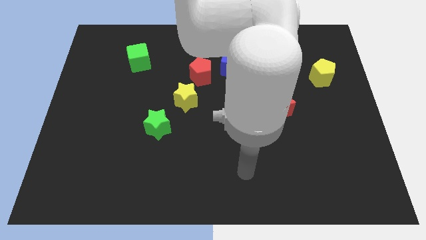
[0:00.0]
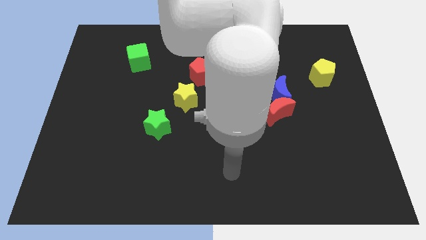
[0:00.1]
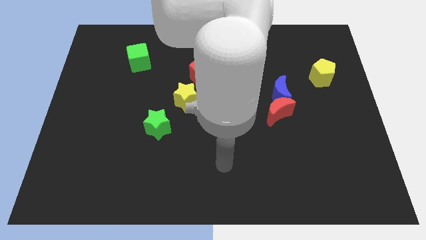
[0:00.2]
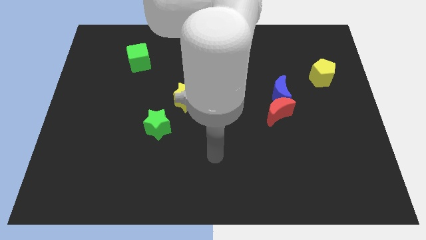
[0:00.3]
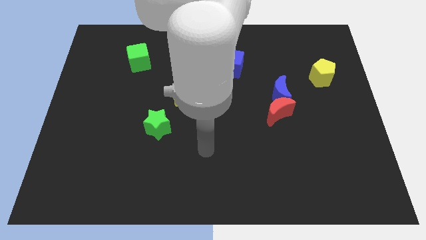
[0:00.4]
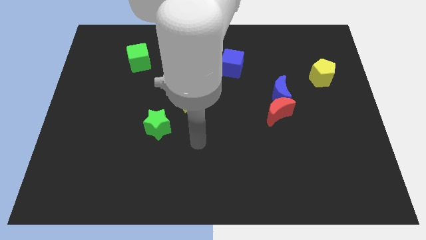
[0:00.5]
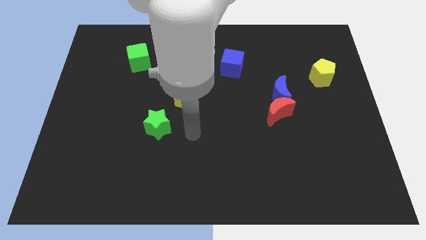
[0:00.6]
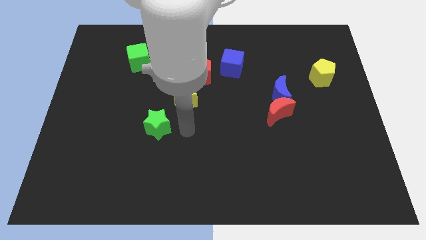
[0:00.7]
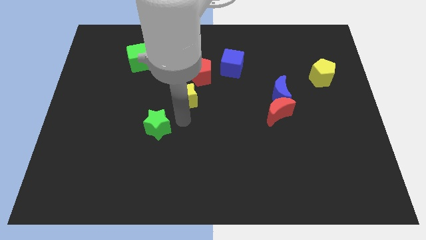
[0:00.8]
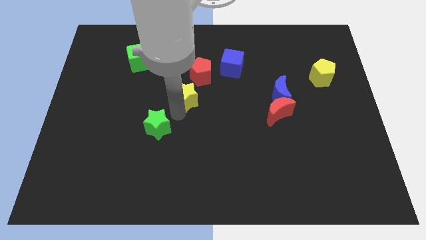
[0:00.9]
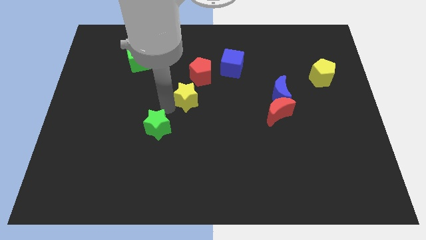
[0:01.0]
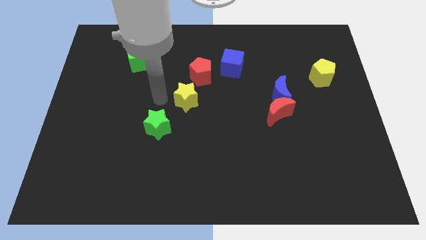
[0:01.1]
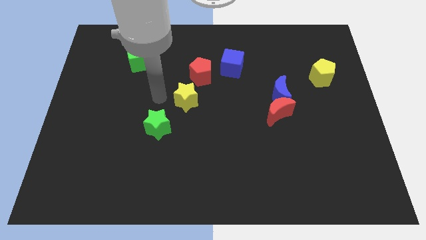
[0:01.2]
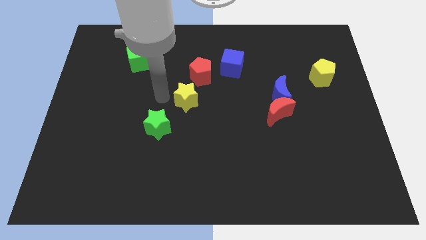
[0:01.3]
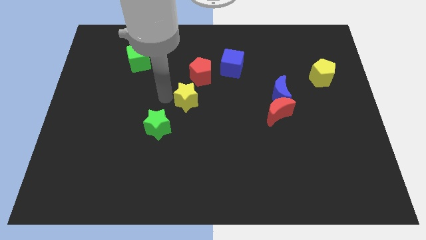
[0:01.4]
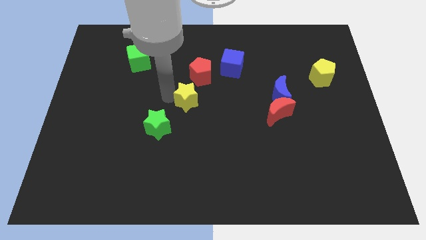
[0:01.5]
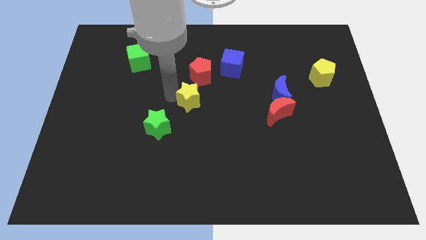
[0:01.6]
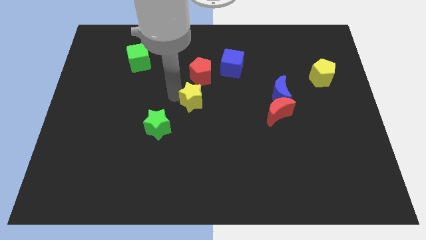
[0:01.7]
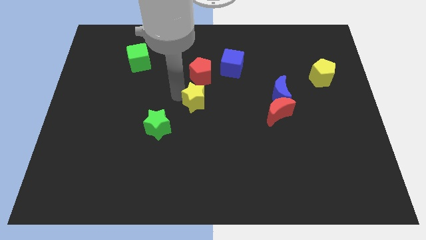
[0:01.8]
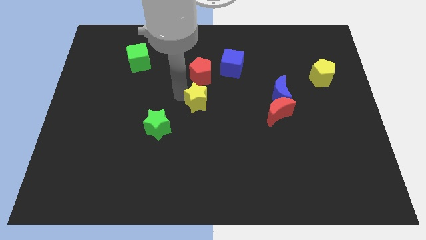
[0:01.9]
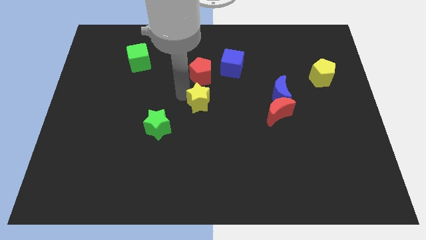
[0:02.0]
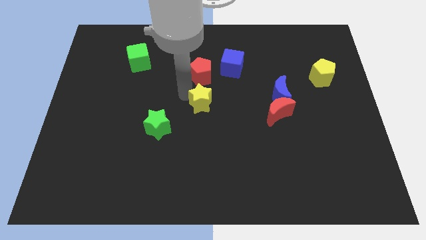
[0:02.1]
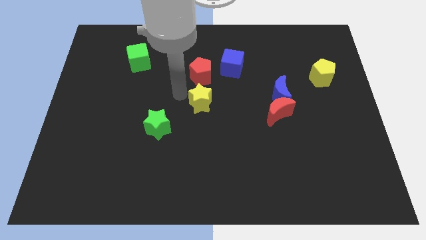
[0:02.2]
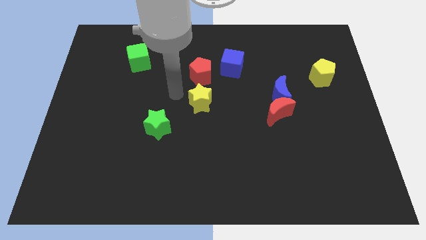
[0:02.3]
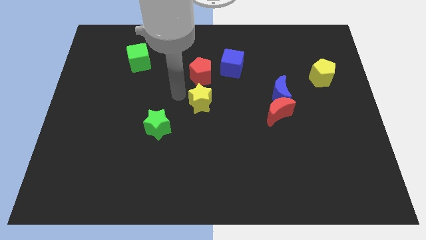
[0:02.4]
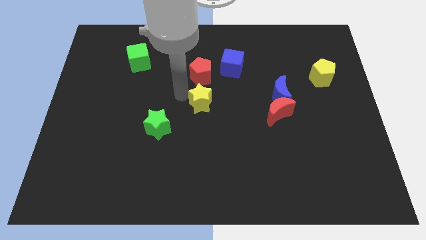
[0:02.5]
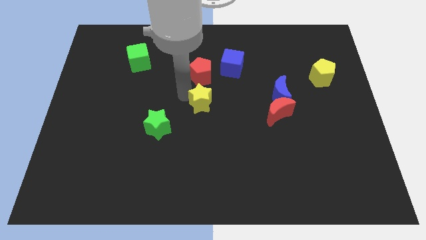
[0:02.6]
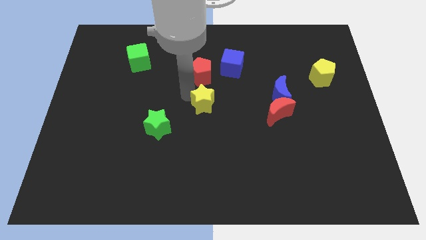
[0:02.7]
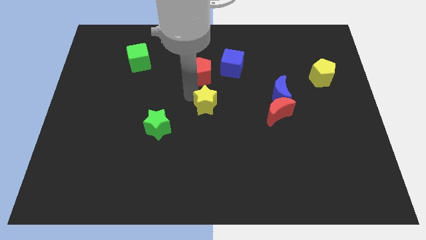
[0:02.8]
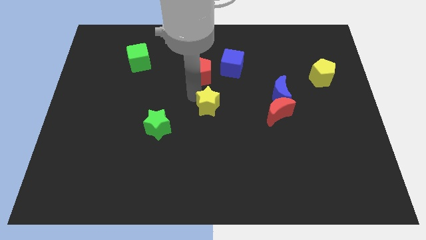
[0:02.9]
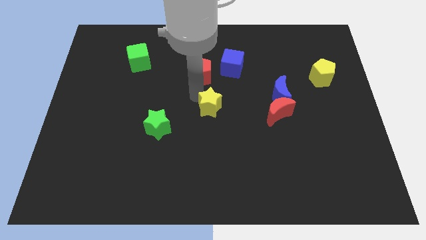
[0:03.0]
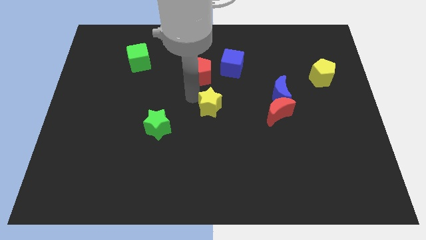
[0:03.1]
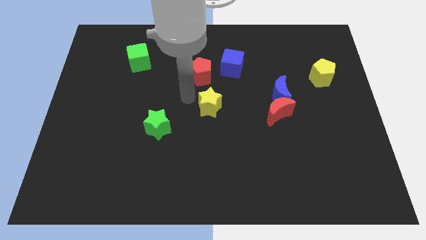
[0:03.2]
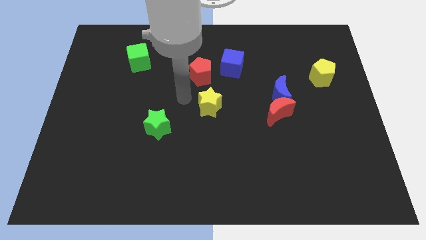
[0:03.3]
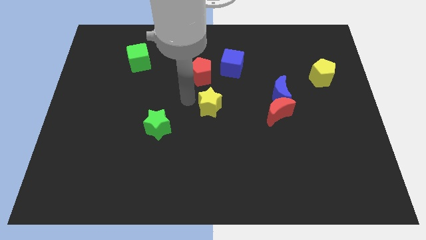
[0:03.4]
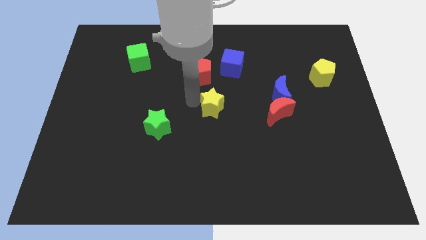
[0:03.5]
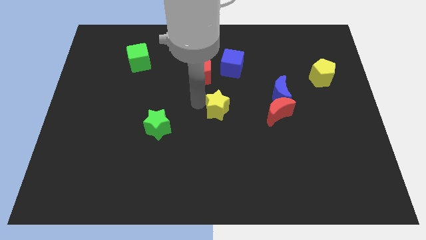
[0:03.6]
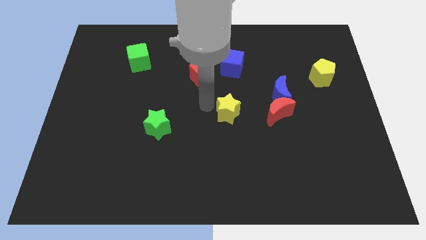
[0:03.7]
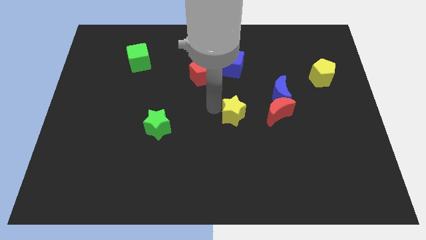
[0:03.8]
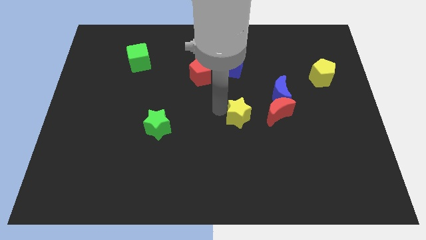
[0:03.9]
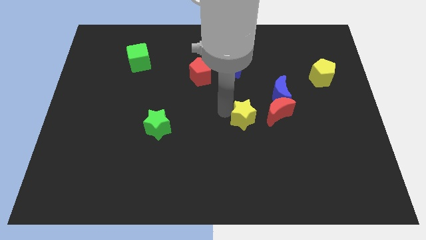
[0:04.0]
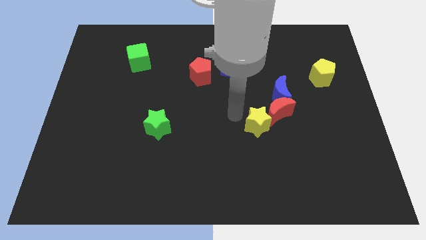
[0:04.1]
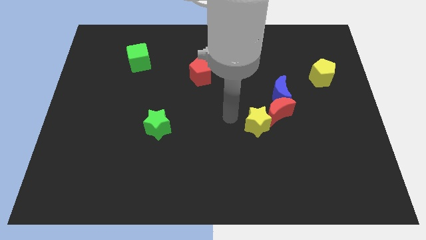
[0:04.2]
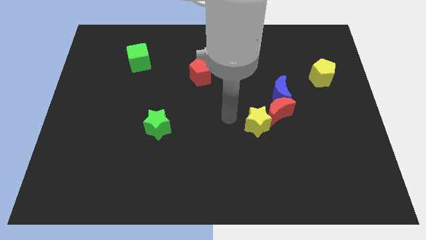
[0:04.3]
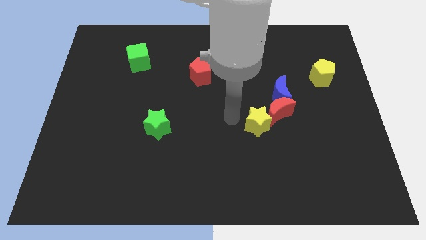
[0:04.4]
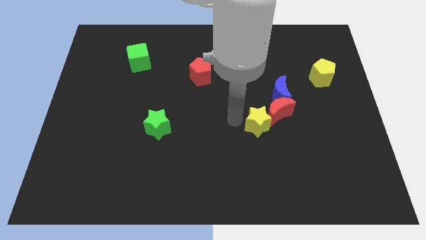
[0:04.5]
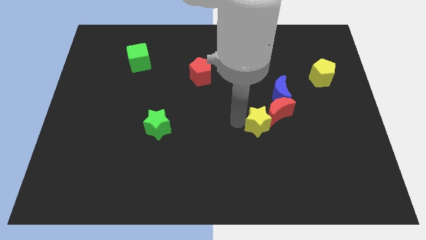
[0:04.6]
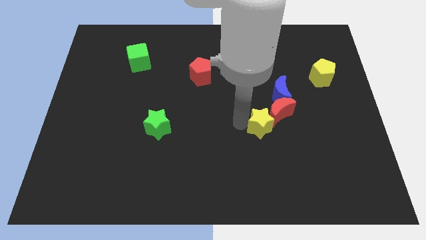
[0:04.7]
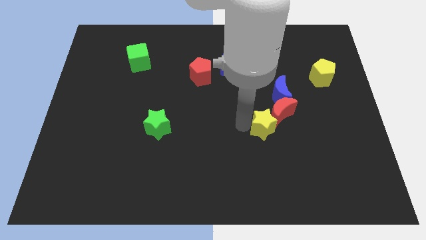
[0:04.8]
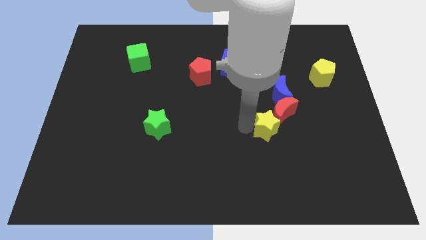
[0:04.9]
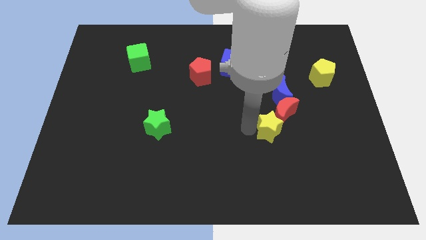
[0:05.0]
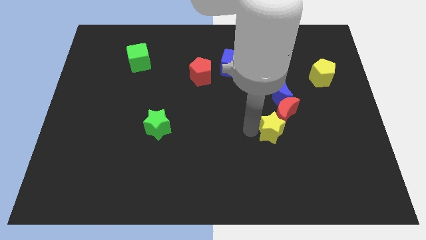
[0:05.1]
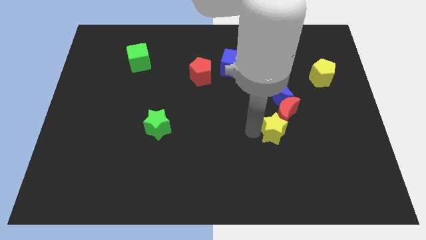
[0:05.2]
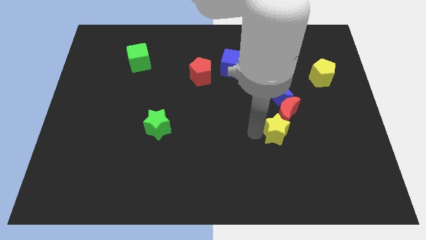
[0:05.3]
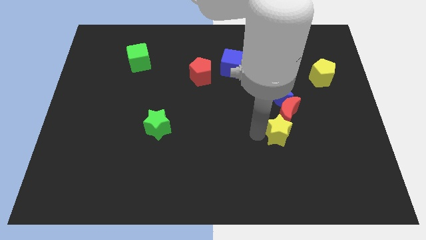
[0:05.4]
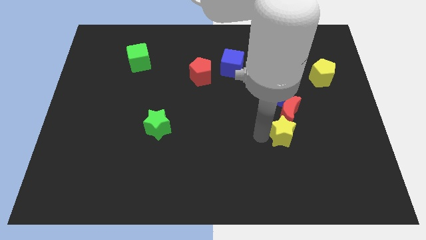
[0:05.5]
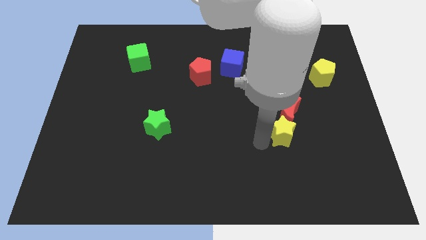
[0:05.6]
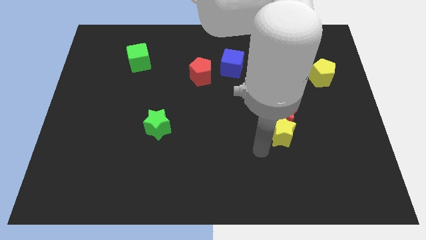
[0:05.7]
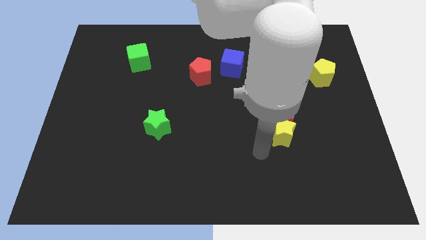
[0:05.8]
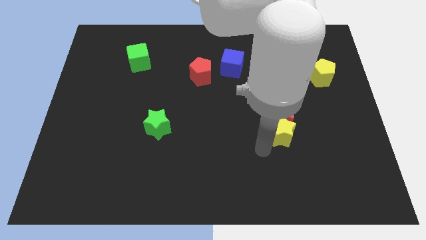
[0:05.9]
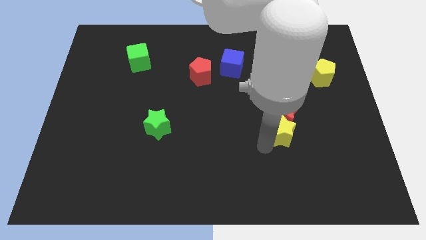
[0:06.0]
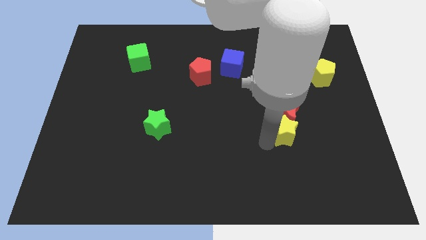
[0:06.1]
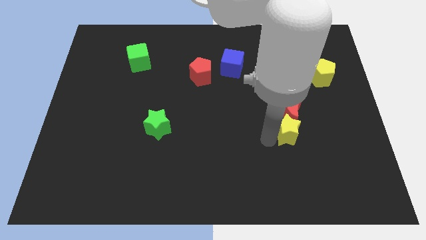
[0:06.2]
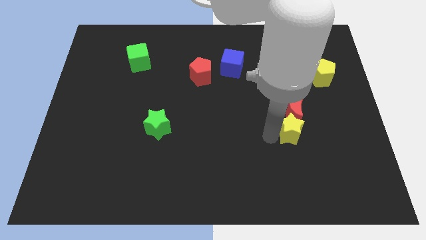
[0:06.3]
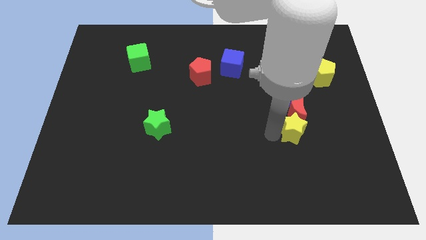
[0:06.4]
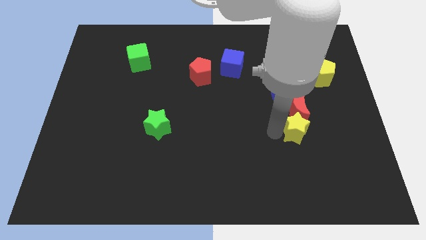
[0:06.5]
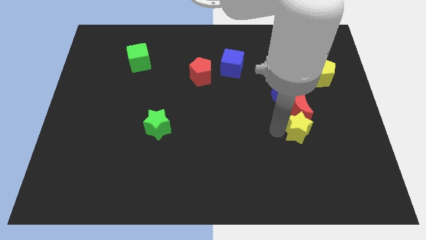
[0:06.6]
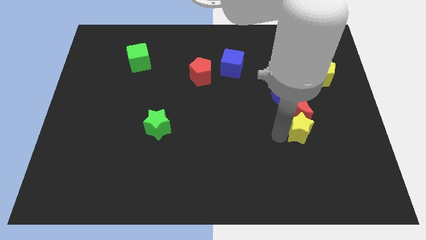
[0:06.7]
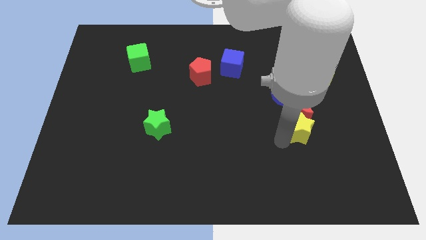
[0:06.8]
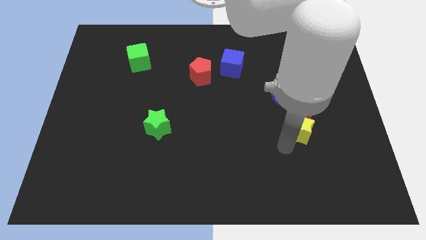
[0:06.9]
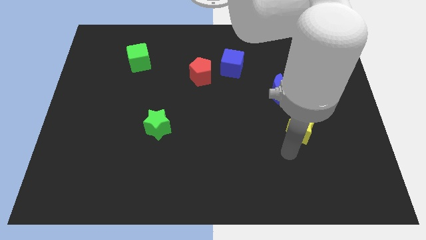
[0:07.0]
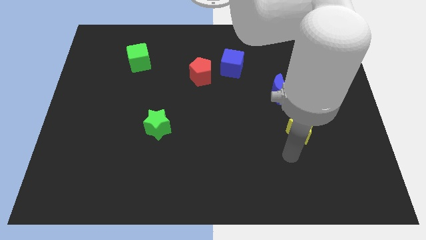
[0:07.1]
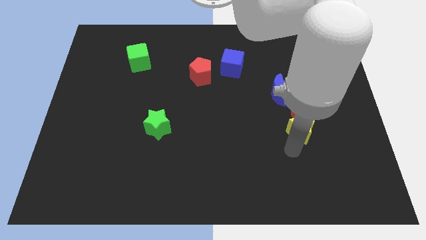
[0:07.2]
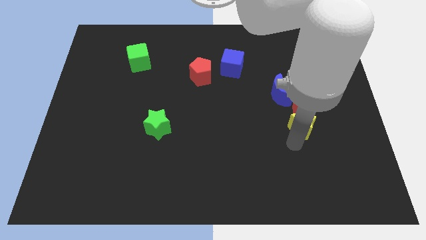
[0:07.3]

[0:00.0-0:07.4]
move the yellow star to the bottom right of the blue moon
